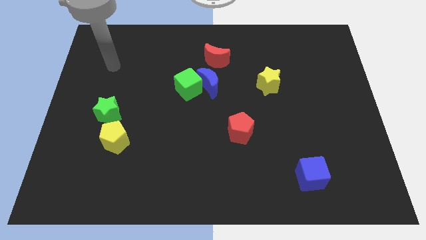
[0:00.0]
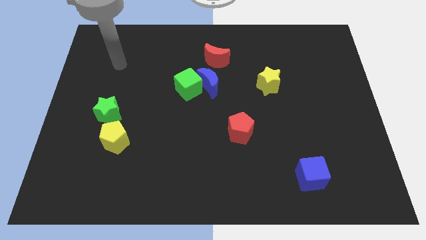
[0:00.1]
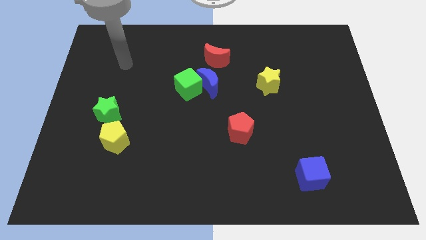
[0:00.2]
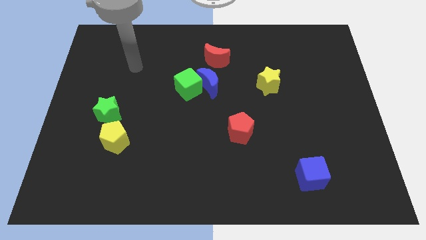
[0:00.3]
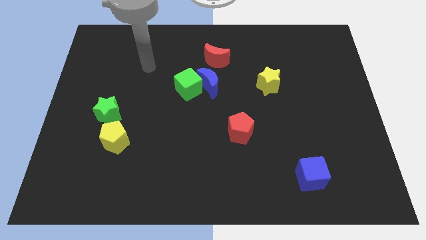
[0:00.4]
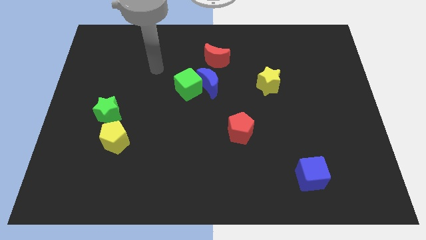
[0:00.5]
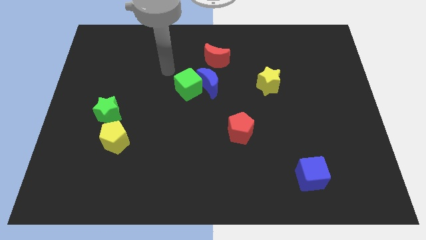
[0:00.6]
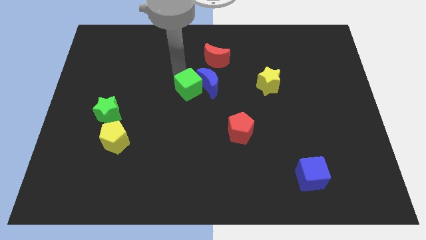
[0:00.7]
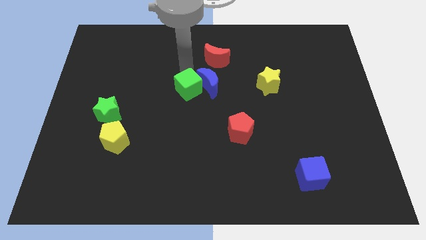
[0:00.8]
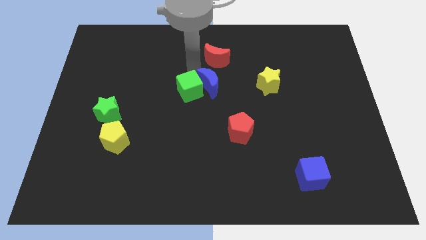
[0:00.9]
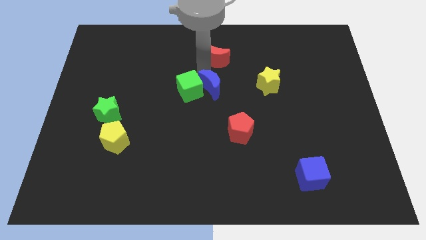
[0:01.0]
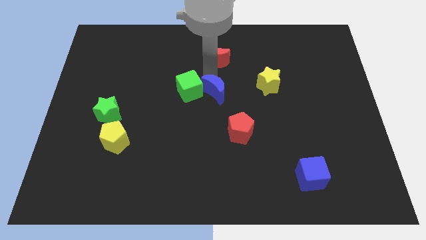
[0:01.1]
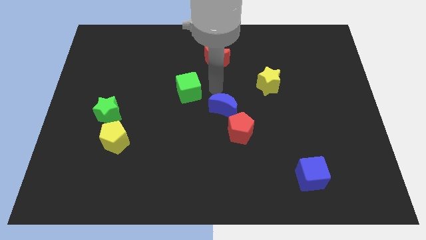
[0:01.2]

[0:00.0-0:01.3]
separate the green cube from the blue moon

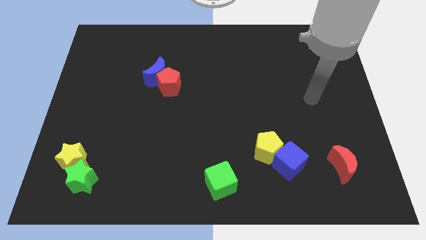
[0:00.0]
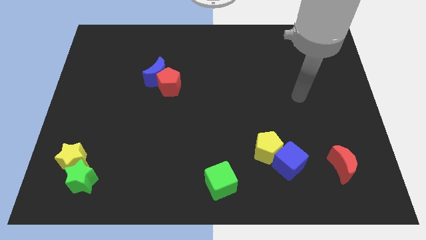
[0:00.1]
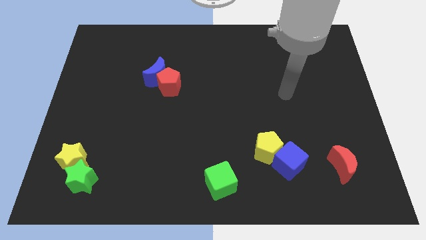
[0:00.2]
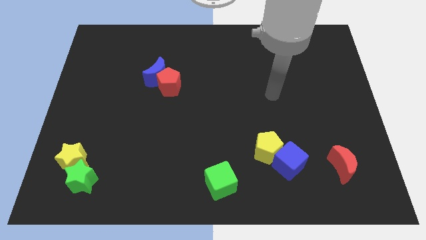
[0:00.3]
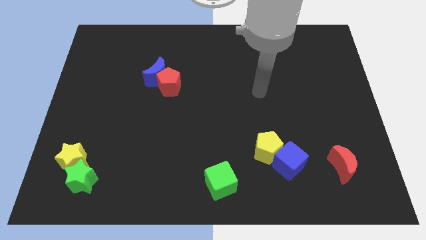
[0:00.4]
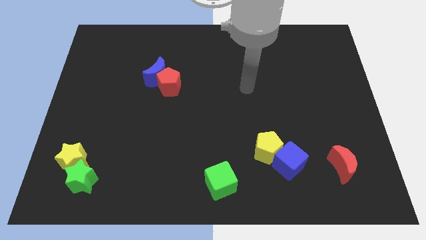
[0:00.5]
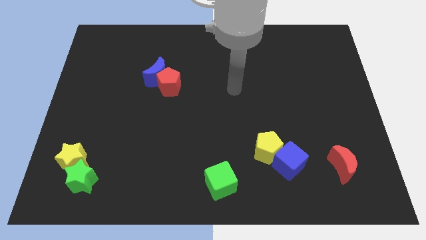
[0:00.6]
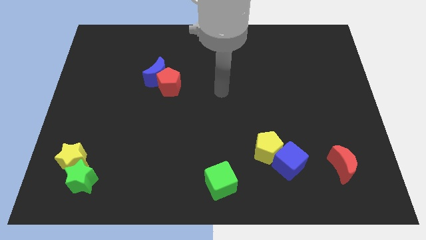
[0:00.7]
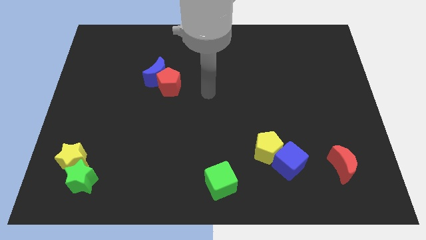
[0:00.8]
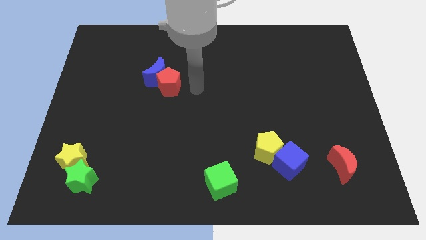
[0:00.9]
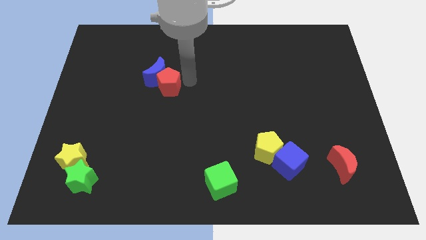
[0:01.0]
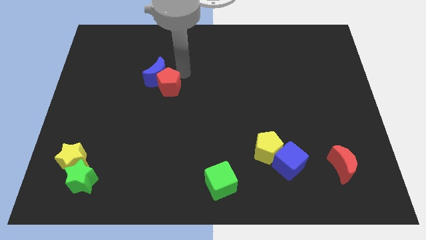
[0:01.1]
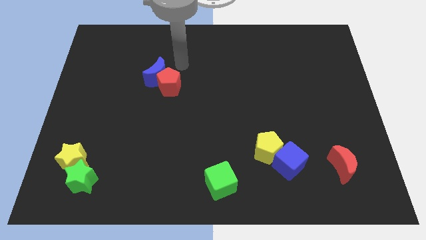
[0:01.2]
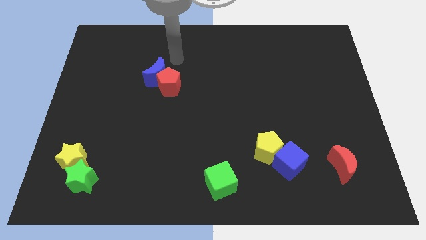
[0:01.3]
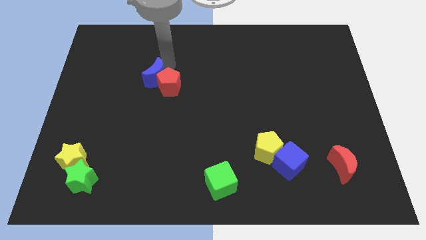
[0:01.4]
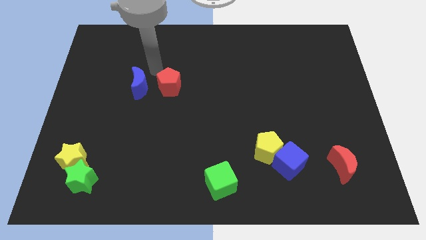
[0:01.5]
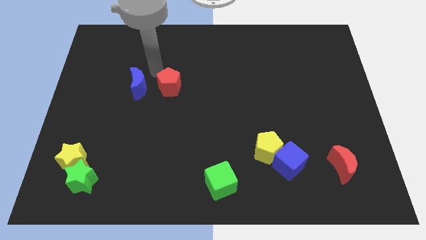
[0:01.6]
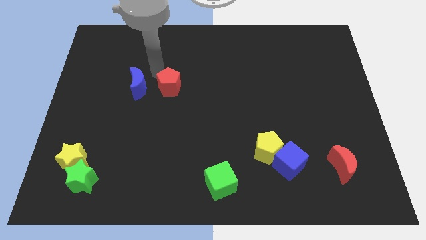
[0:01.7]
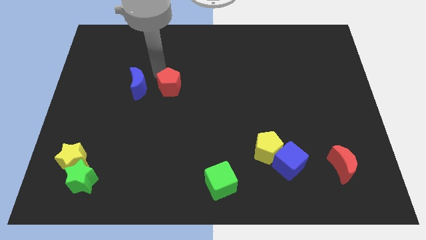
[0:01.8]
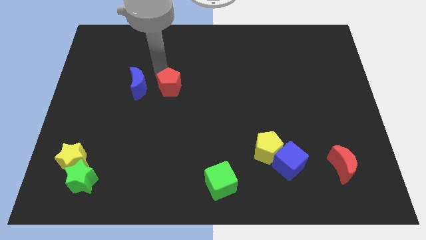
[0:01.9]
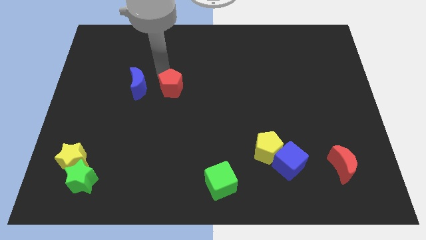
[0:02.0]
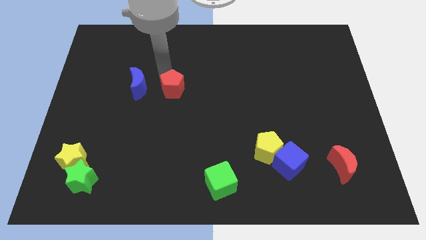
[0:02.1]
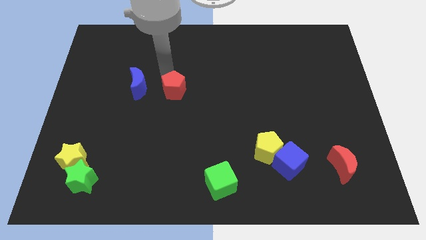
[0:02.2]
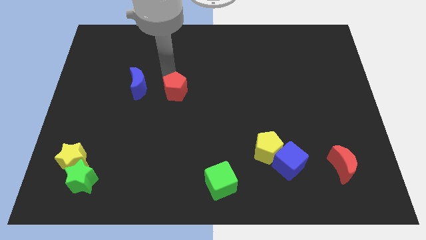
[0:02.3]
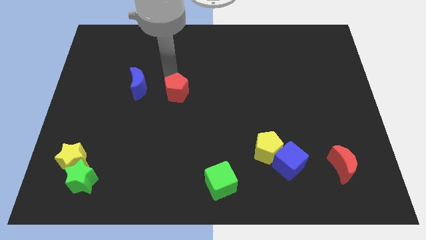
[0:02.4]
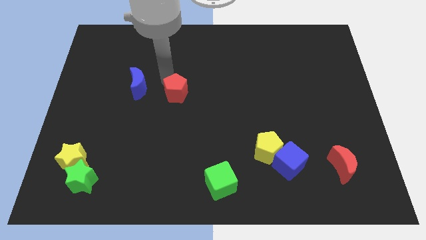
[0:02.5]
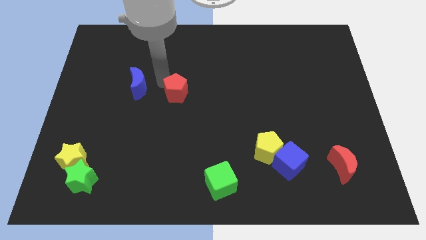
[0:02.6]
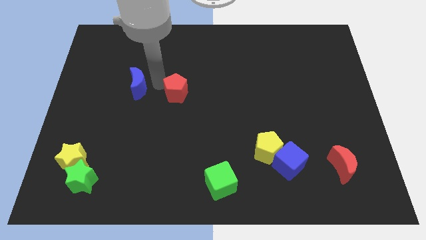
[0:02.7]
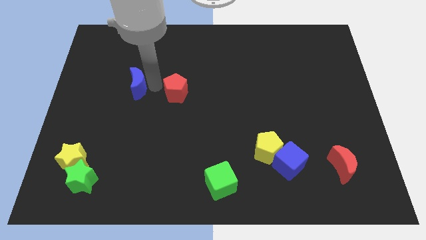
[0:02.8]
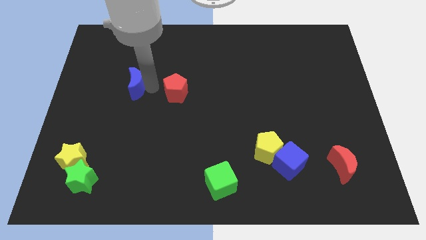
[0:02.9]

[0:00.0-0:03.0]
separate the red pentagon from the blue moon

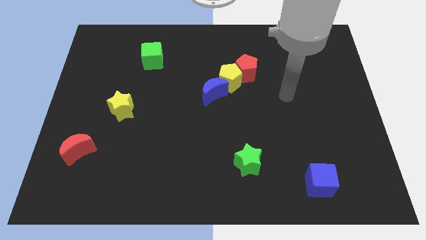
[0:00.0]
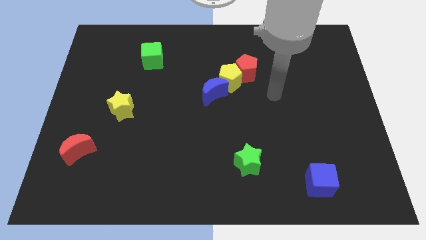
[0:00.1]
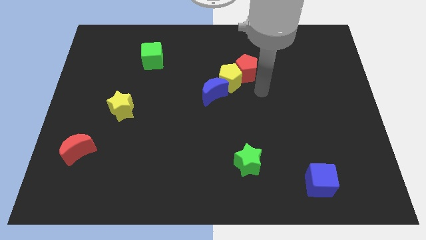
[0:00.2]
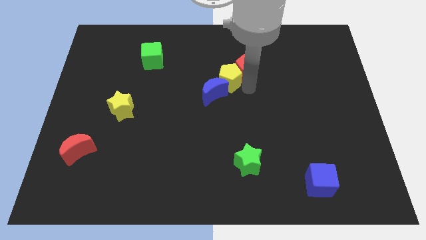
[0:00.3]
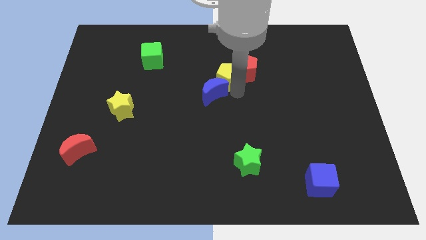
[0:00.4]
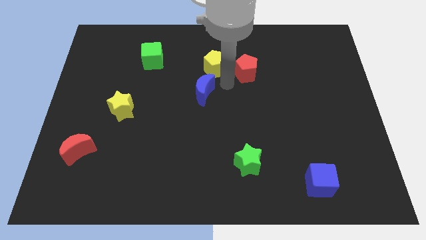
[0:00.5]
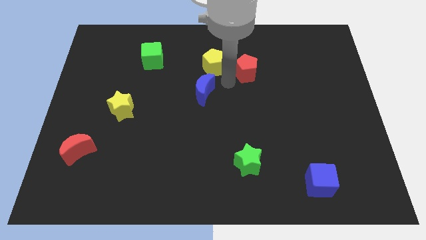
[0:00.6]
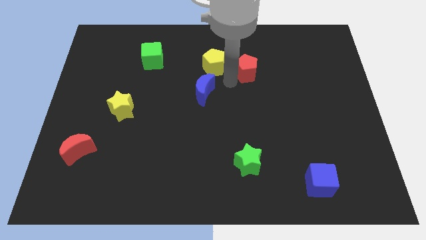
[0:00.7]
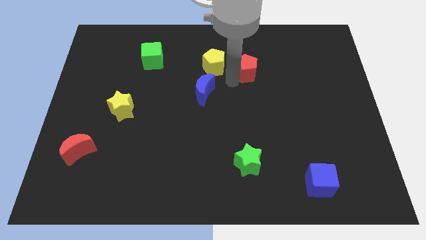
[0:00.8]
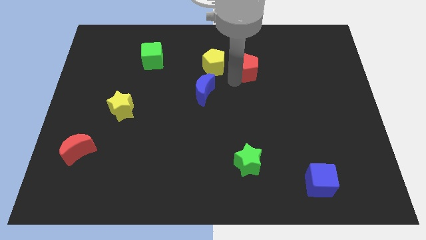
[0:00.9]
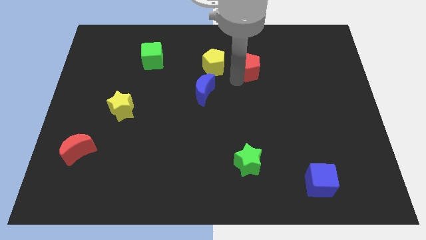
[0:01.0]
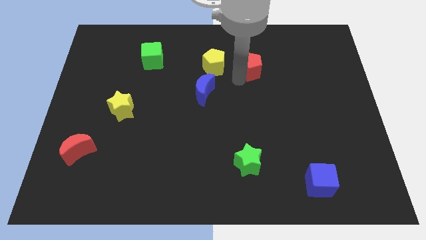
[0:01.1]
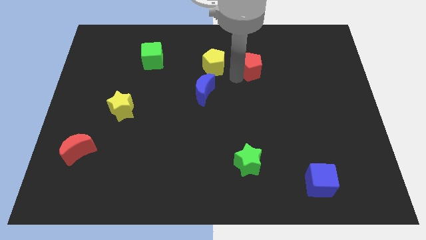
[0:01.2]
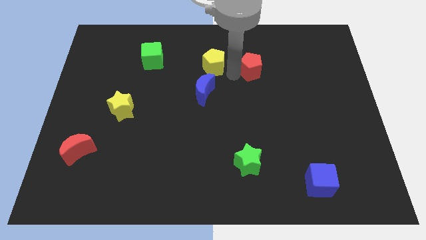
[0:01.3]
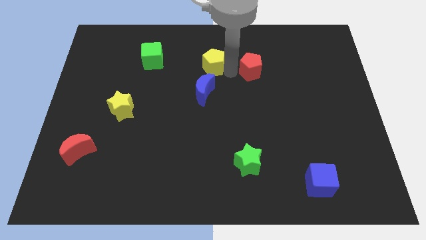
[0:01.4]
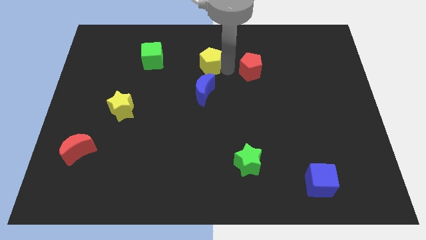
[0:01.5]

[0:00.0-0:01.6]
pull the red pentagon apart from the yellow pentagon

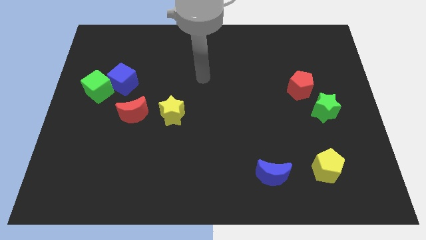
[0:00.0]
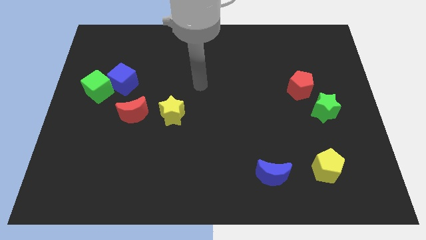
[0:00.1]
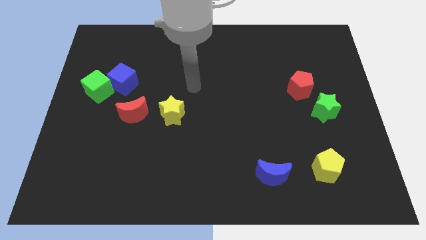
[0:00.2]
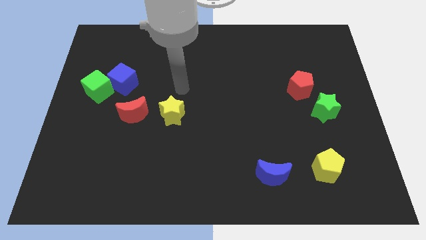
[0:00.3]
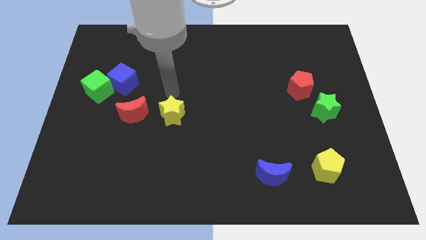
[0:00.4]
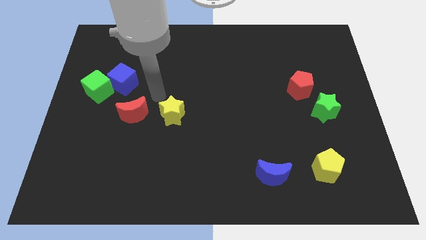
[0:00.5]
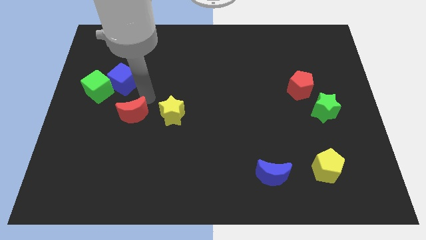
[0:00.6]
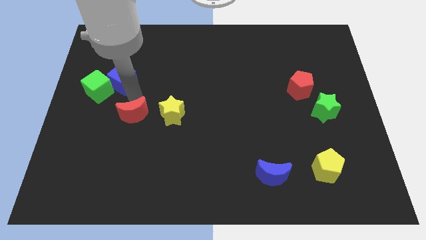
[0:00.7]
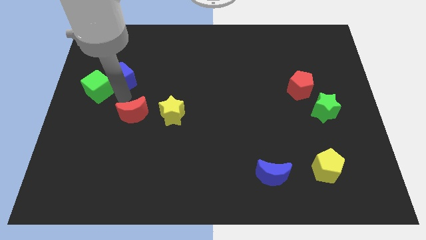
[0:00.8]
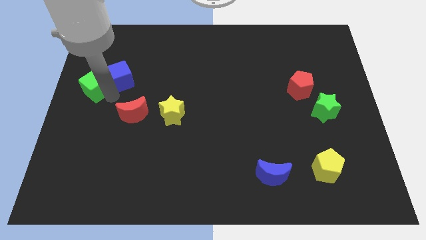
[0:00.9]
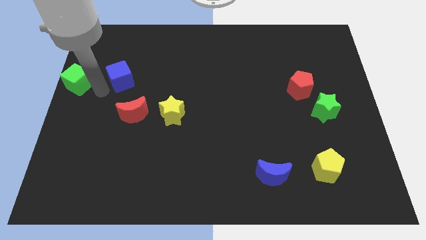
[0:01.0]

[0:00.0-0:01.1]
pull the blue cube apart from the green cube

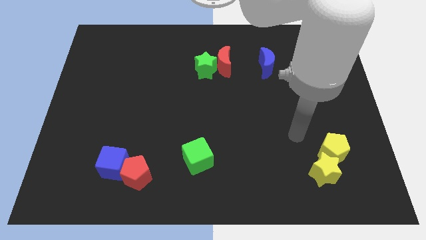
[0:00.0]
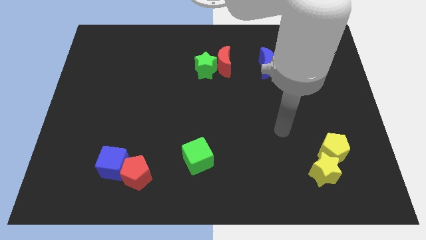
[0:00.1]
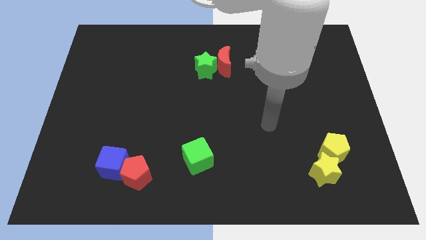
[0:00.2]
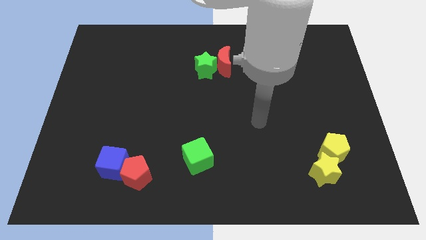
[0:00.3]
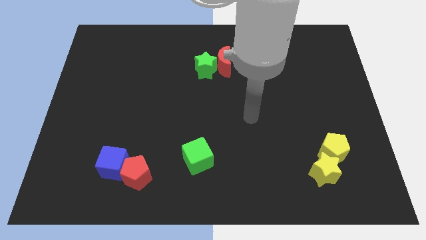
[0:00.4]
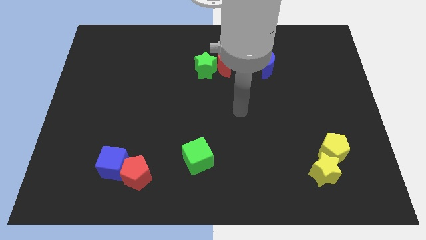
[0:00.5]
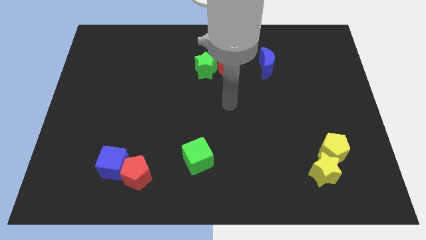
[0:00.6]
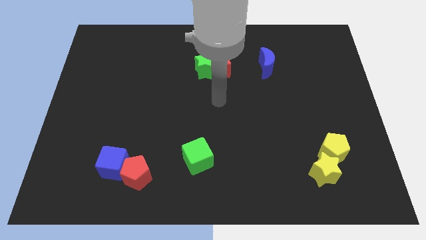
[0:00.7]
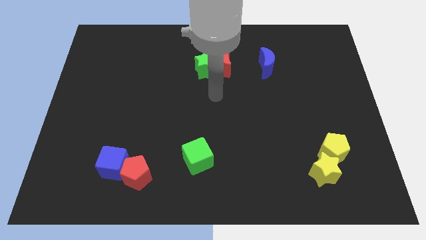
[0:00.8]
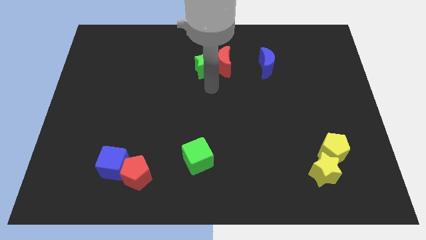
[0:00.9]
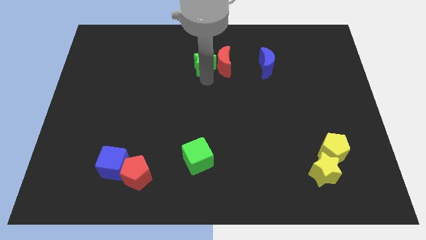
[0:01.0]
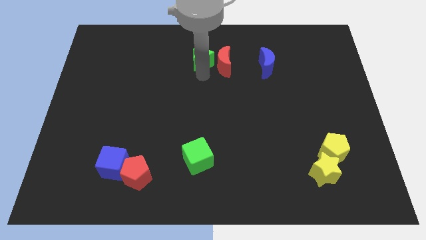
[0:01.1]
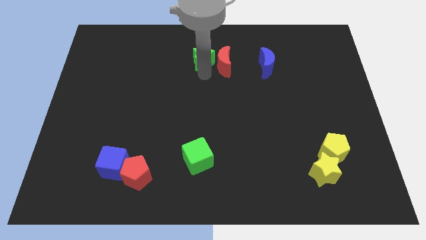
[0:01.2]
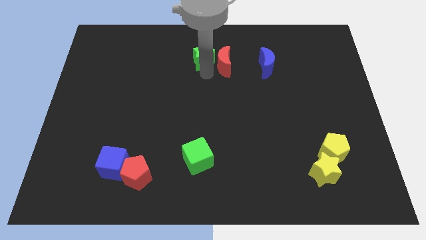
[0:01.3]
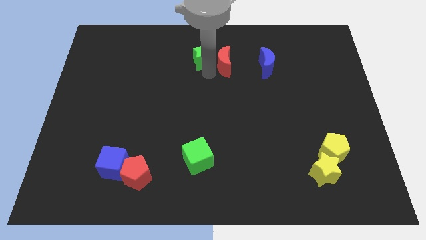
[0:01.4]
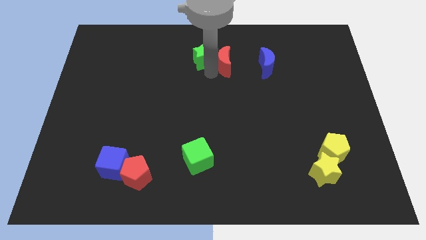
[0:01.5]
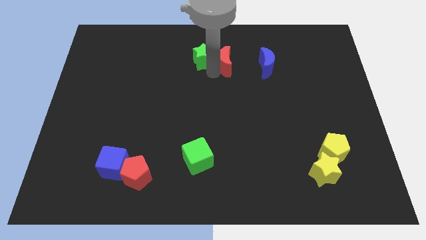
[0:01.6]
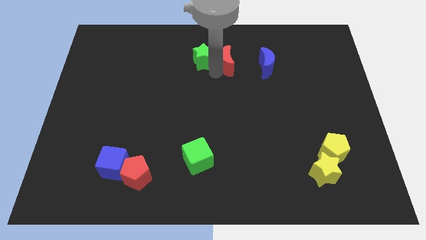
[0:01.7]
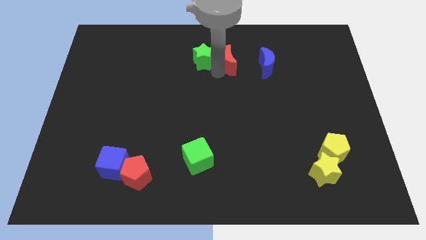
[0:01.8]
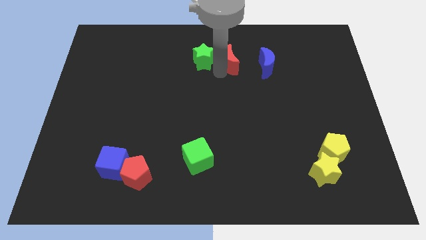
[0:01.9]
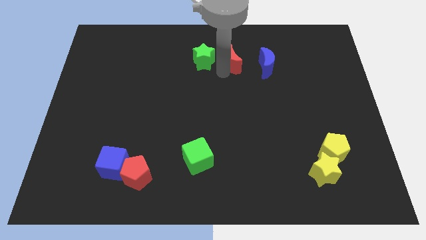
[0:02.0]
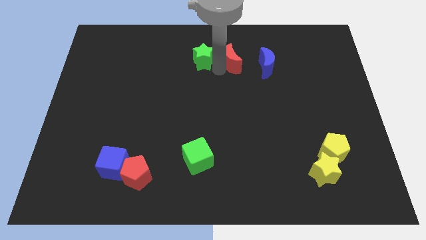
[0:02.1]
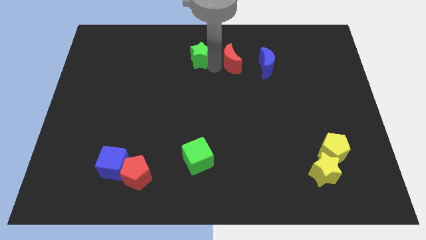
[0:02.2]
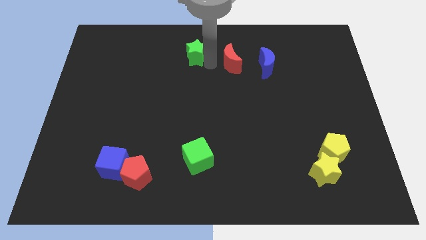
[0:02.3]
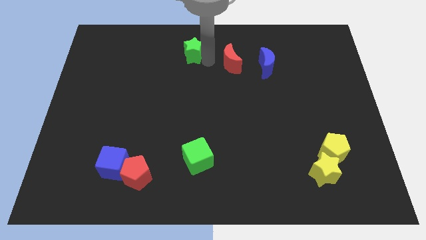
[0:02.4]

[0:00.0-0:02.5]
move the red moon away from the green star
